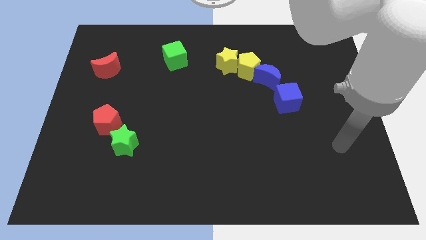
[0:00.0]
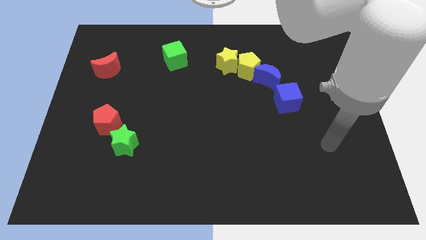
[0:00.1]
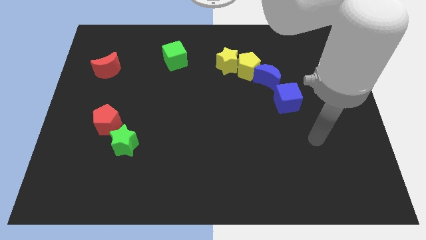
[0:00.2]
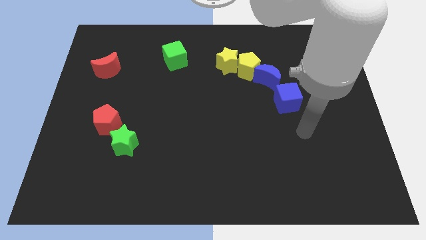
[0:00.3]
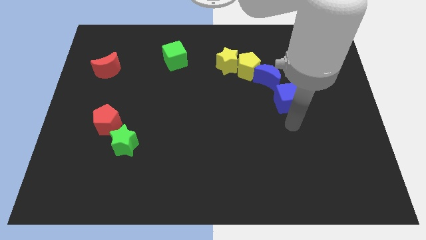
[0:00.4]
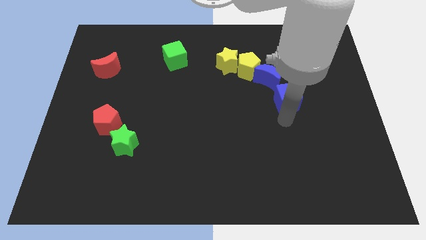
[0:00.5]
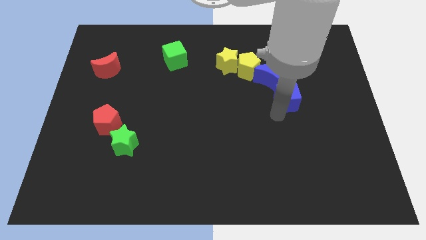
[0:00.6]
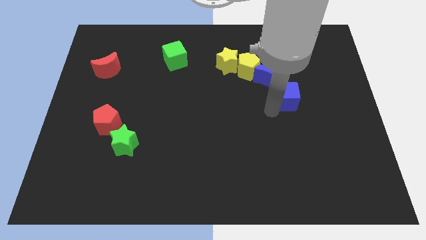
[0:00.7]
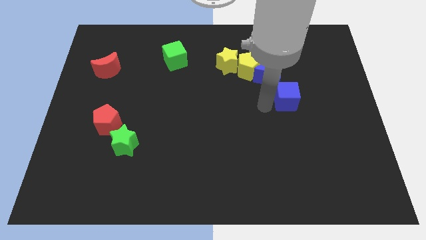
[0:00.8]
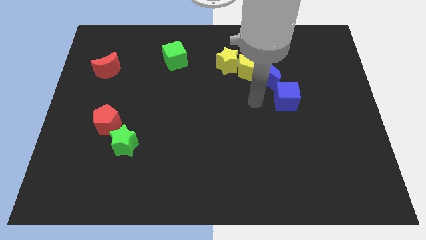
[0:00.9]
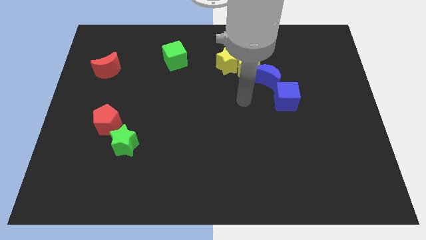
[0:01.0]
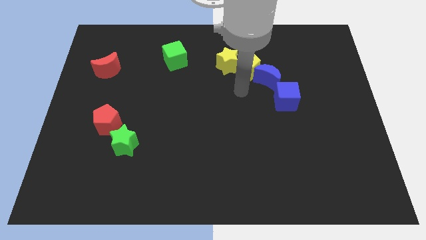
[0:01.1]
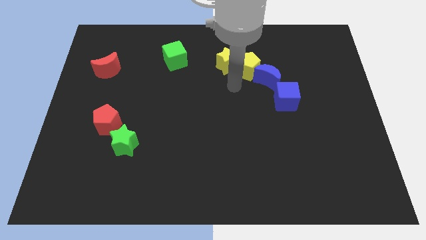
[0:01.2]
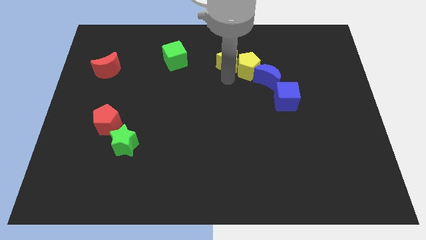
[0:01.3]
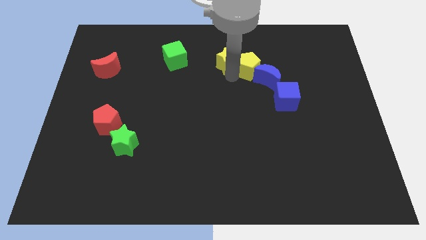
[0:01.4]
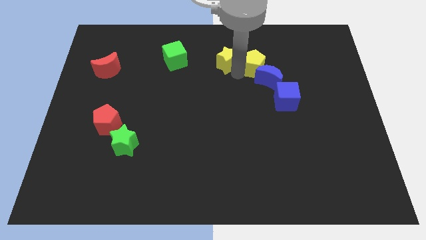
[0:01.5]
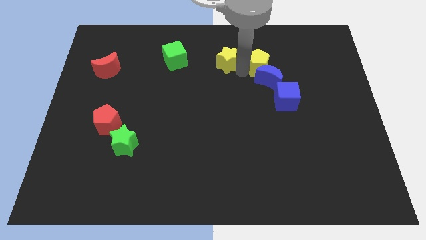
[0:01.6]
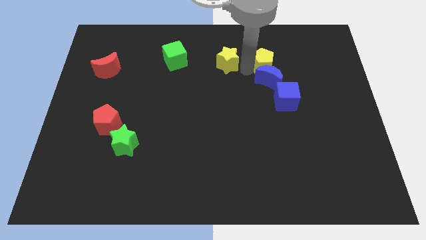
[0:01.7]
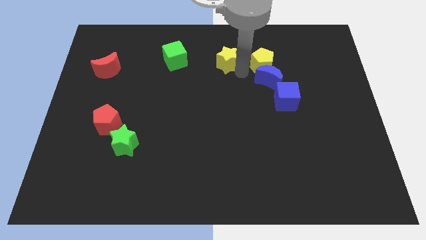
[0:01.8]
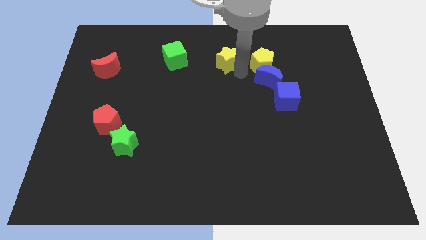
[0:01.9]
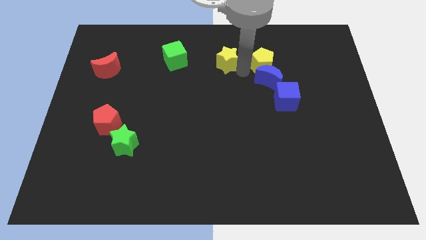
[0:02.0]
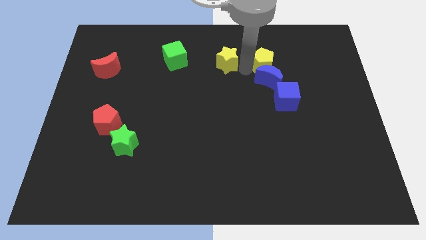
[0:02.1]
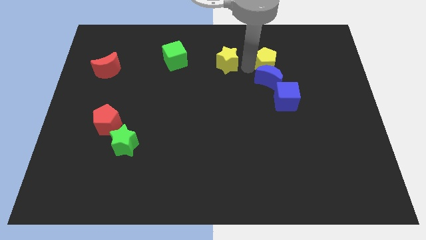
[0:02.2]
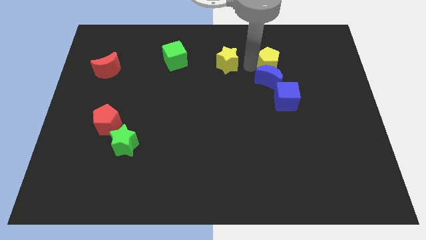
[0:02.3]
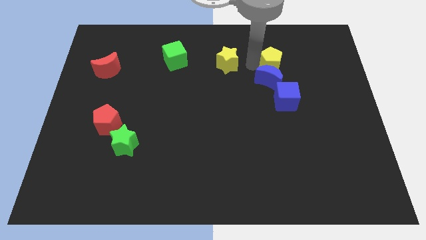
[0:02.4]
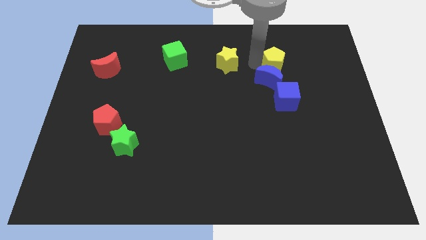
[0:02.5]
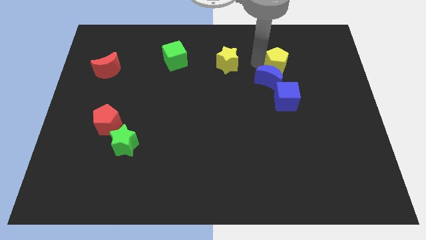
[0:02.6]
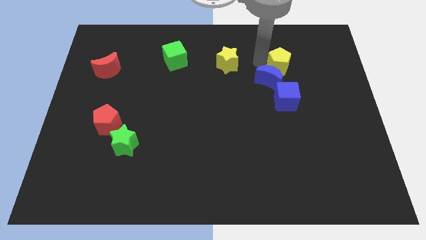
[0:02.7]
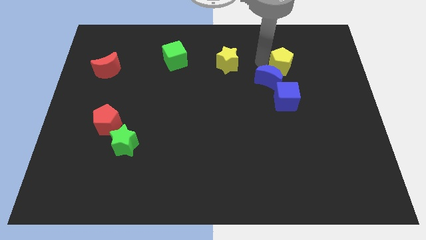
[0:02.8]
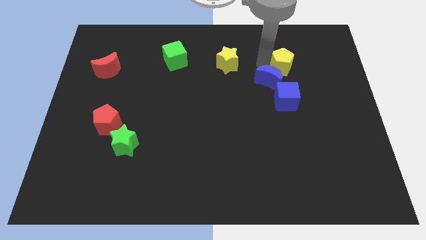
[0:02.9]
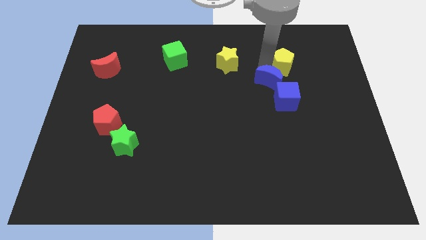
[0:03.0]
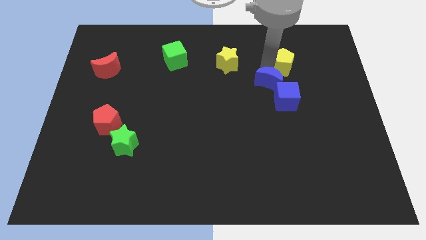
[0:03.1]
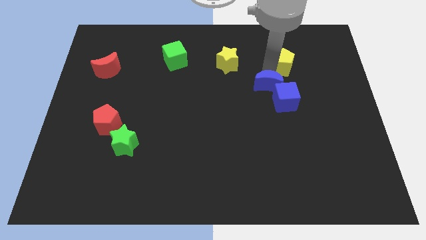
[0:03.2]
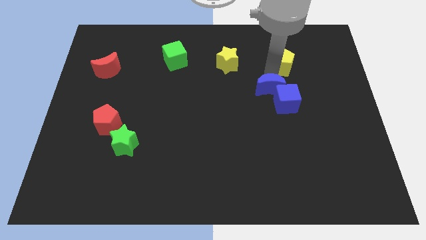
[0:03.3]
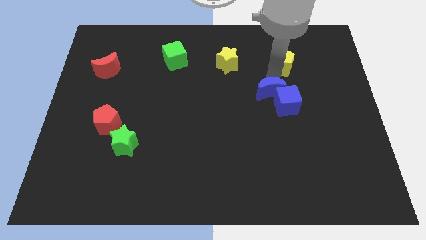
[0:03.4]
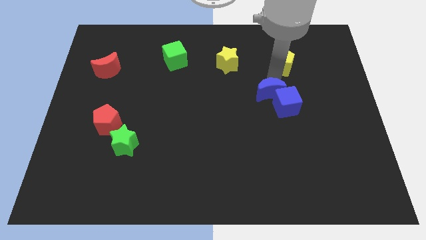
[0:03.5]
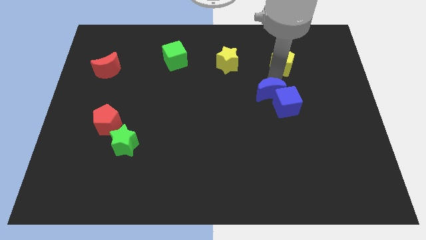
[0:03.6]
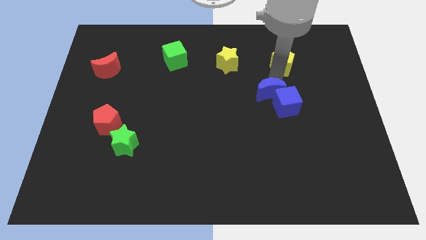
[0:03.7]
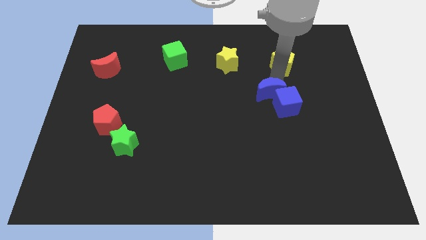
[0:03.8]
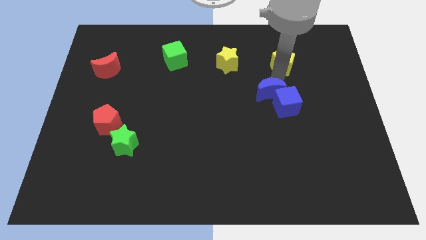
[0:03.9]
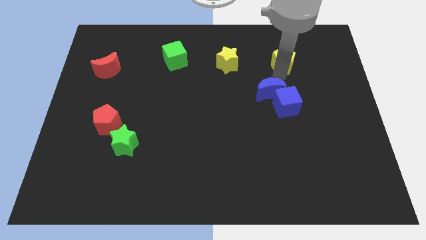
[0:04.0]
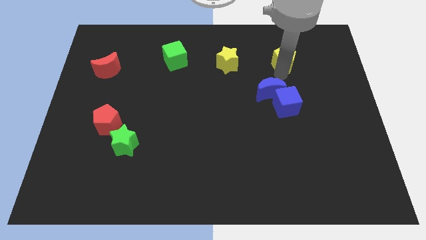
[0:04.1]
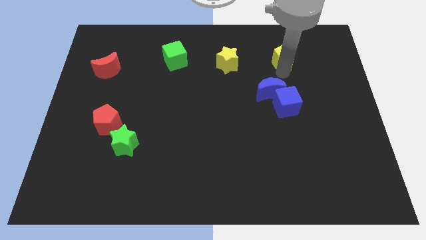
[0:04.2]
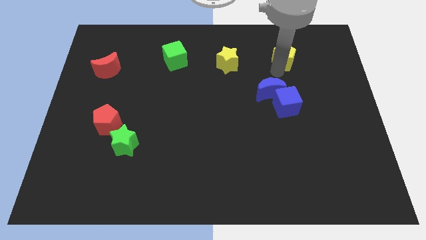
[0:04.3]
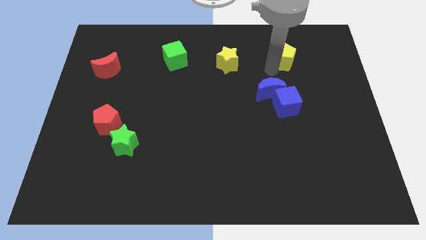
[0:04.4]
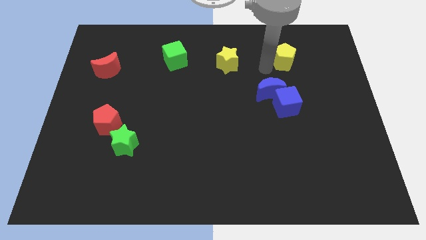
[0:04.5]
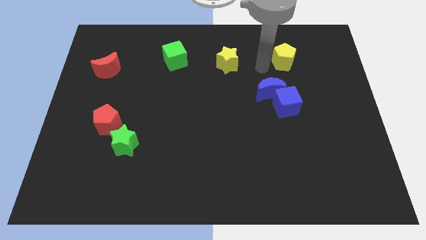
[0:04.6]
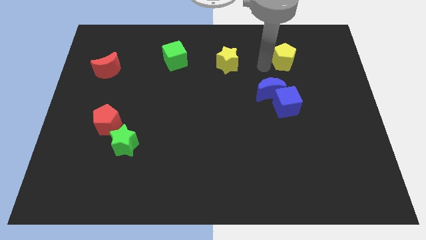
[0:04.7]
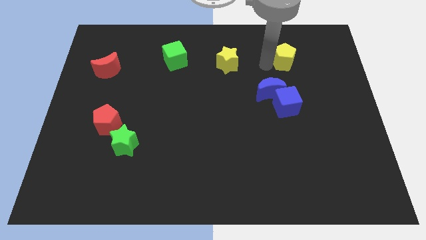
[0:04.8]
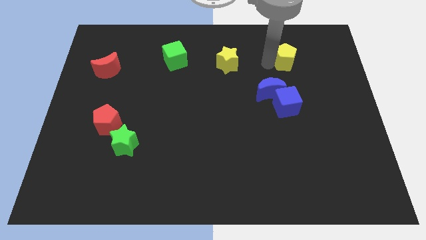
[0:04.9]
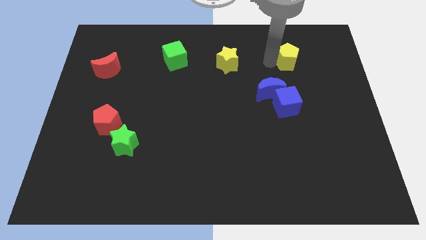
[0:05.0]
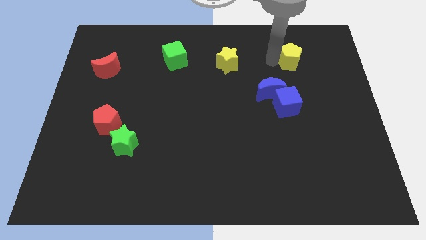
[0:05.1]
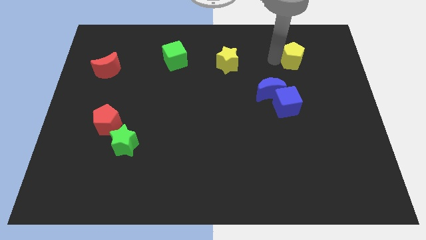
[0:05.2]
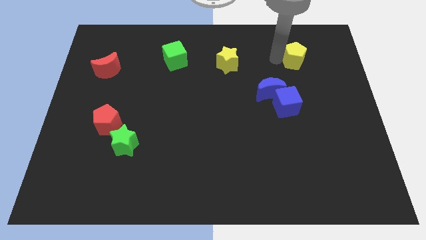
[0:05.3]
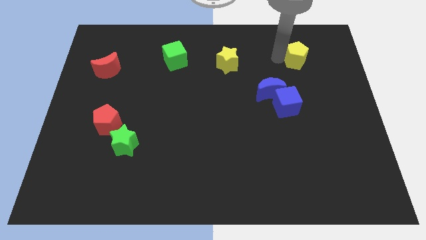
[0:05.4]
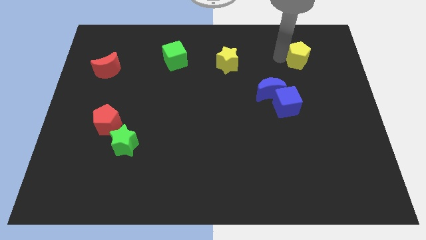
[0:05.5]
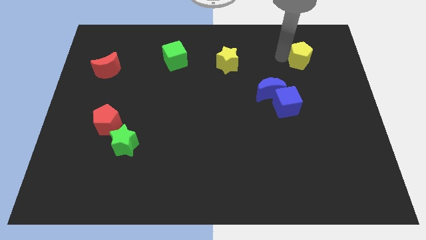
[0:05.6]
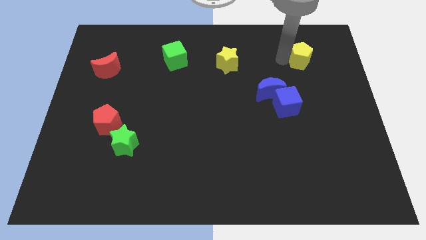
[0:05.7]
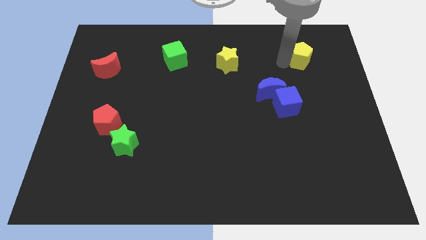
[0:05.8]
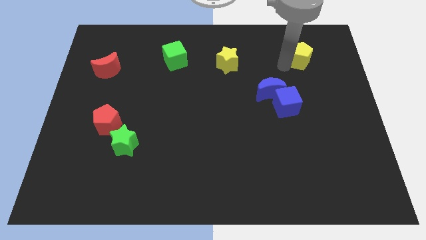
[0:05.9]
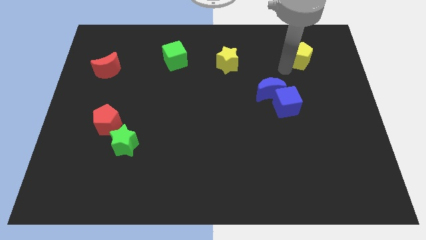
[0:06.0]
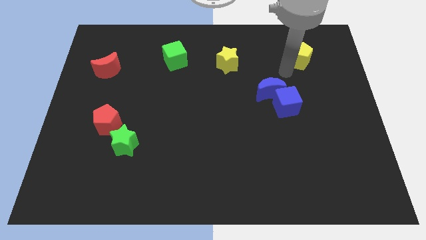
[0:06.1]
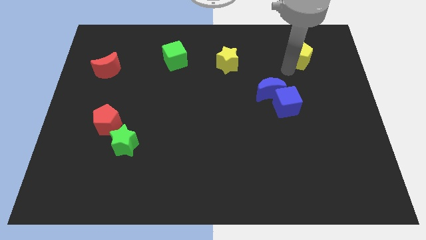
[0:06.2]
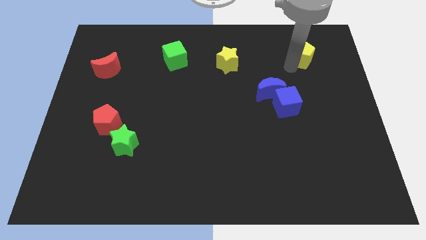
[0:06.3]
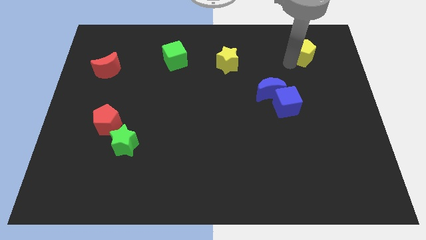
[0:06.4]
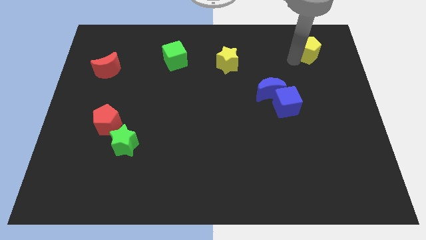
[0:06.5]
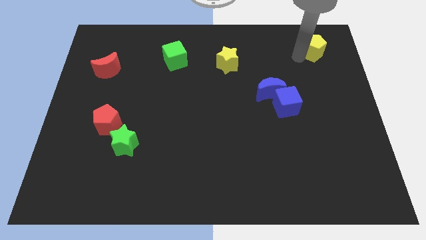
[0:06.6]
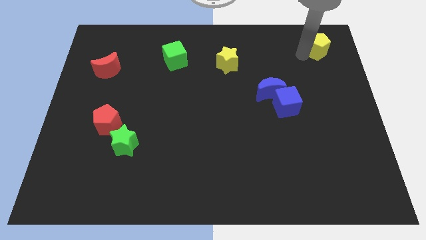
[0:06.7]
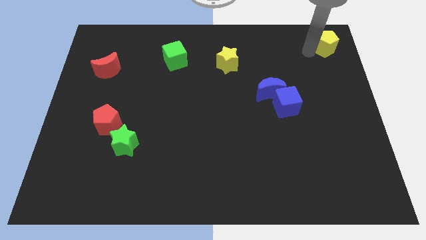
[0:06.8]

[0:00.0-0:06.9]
push the yellow pentagon to the top right of the board

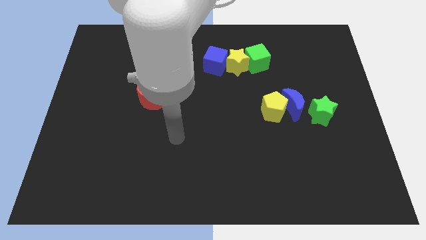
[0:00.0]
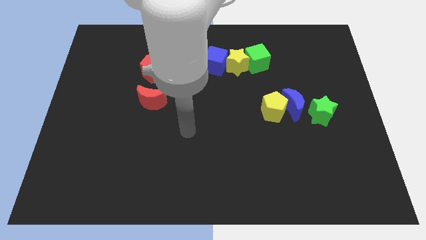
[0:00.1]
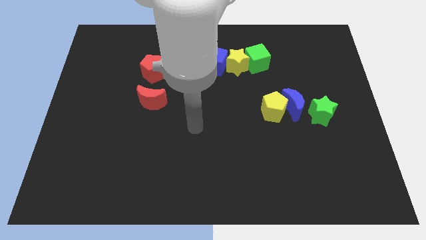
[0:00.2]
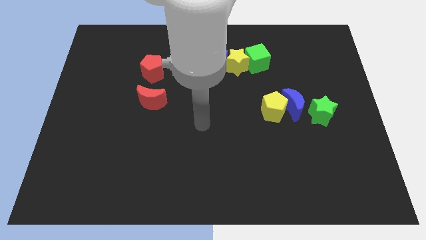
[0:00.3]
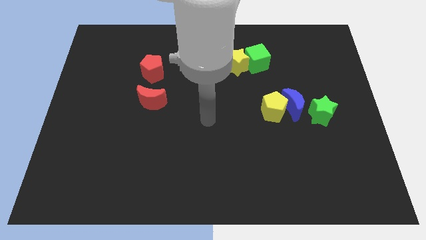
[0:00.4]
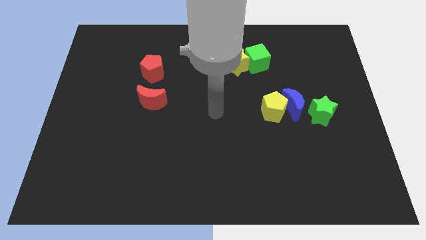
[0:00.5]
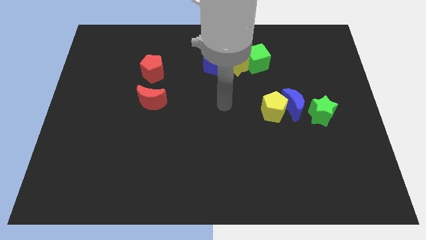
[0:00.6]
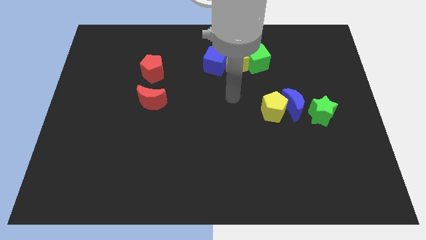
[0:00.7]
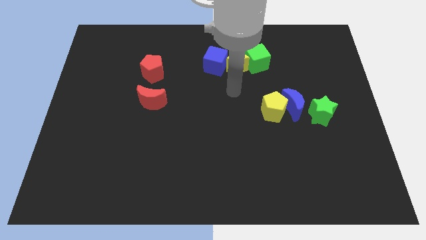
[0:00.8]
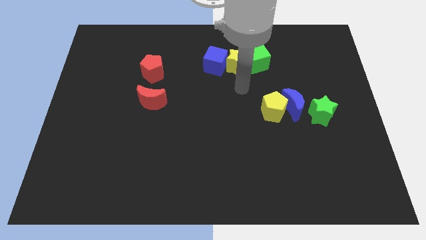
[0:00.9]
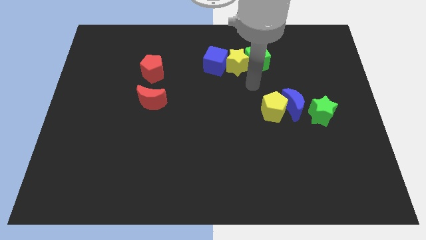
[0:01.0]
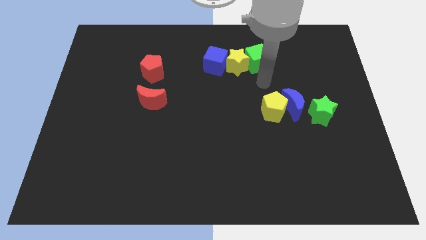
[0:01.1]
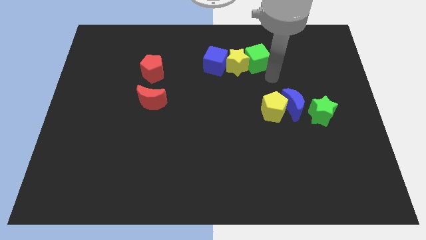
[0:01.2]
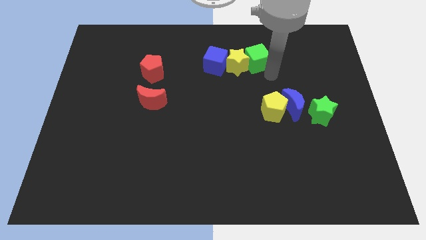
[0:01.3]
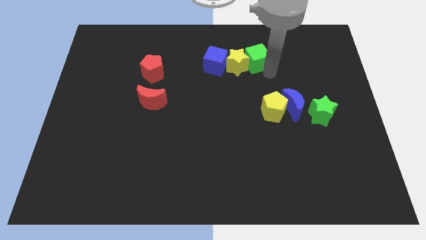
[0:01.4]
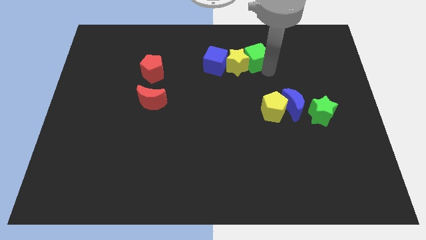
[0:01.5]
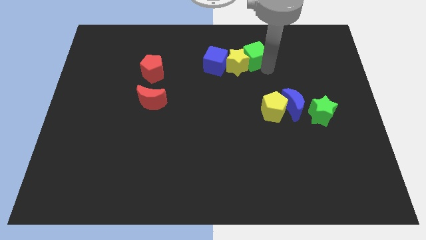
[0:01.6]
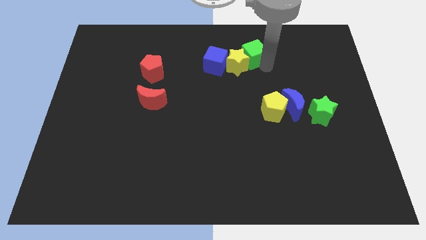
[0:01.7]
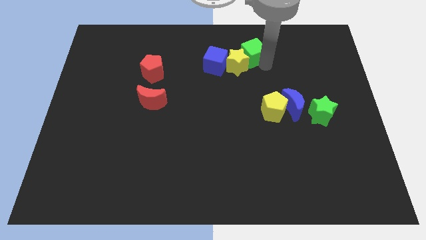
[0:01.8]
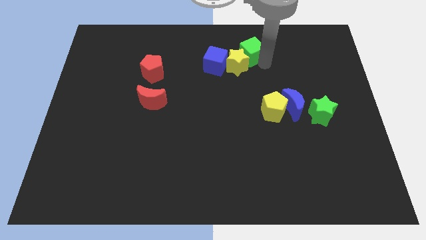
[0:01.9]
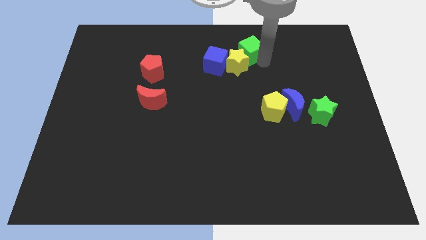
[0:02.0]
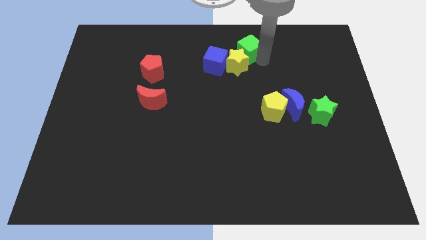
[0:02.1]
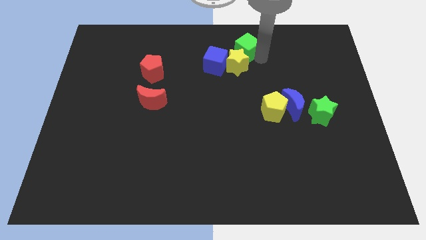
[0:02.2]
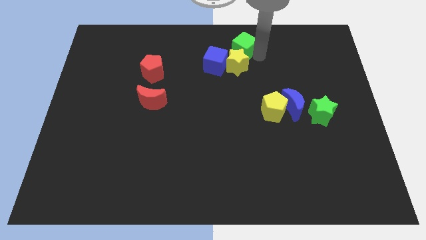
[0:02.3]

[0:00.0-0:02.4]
slide the green cube to the towards your base
